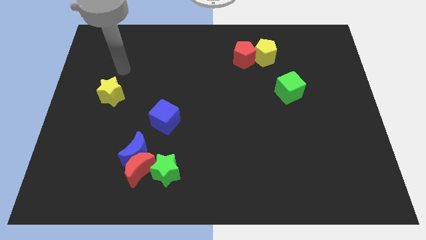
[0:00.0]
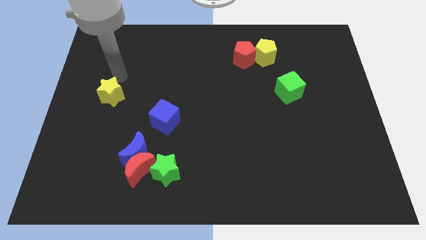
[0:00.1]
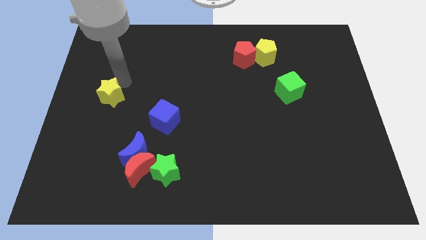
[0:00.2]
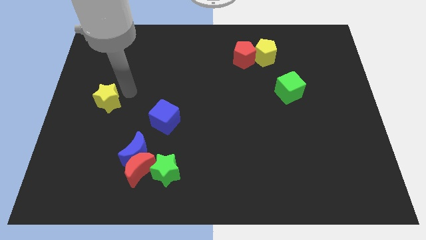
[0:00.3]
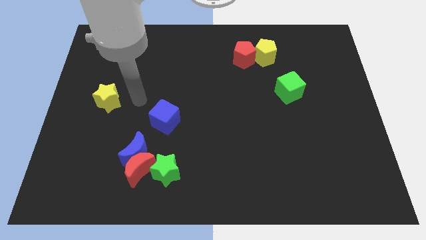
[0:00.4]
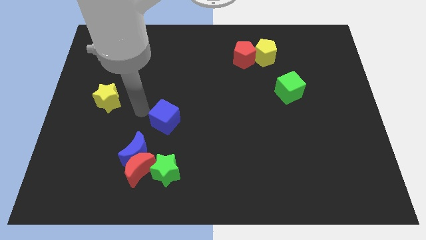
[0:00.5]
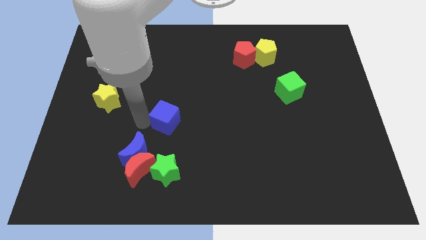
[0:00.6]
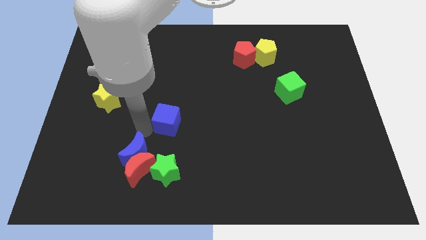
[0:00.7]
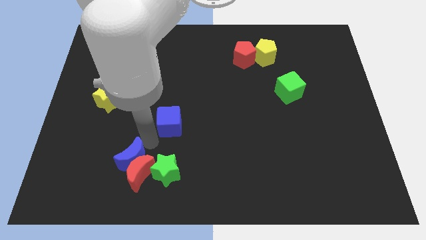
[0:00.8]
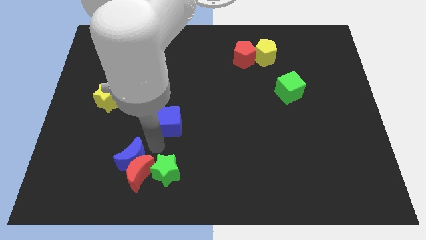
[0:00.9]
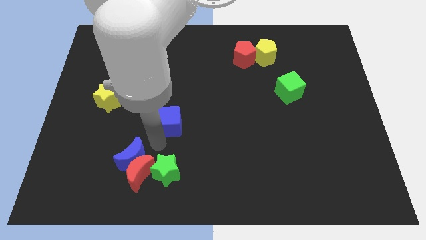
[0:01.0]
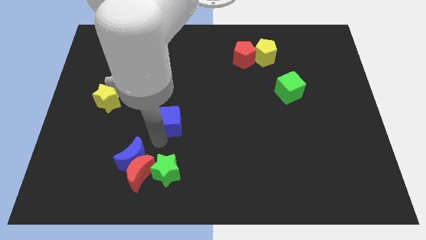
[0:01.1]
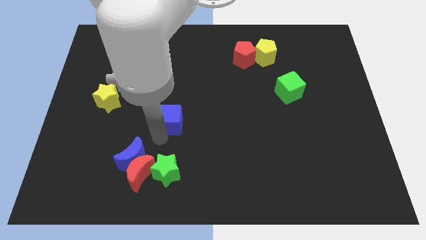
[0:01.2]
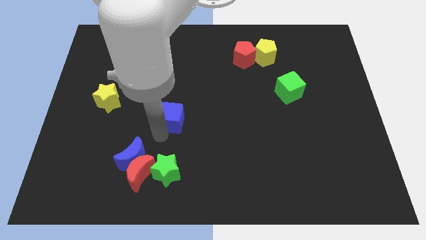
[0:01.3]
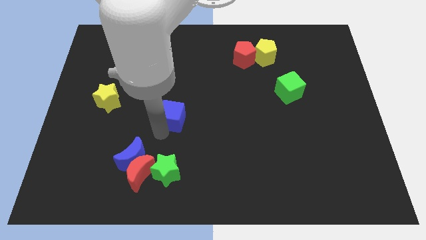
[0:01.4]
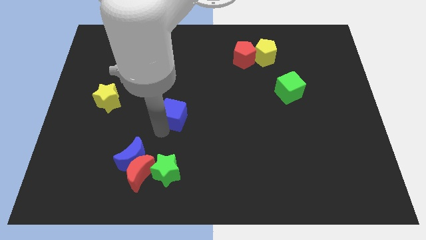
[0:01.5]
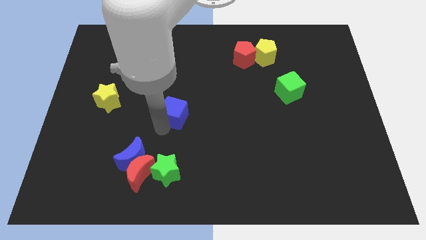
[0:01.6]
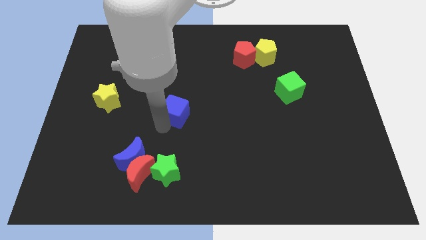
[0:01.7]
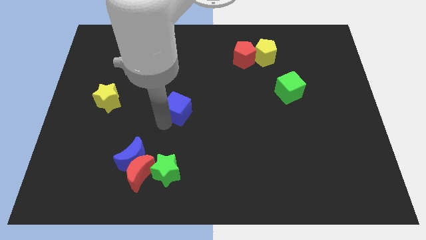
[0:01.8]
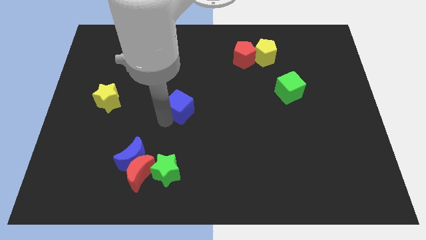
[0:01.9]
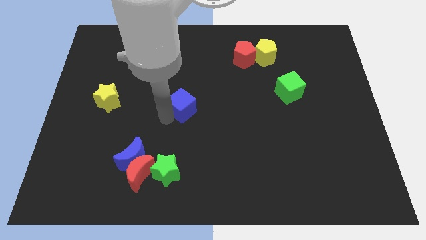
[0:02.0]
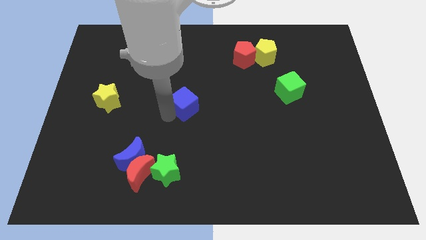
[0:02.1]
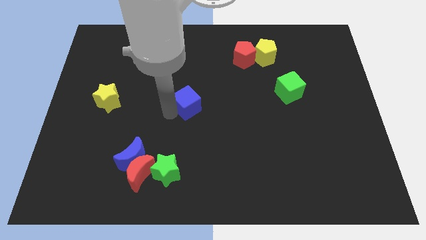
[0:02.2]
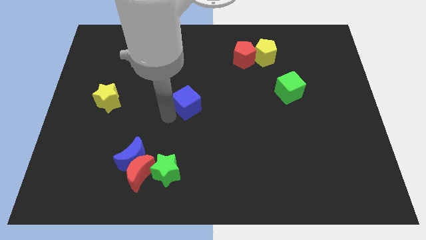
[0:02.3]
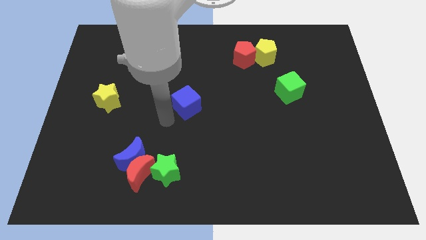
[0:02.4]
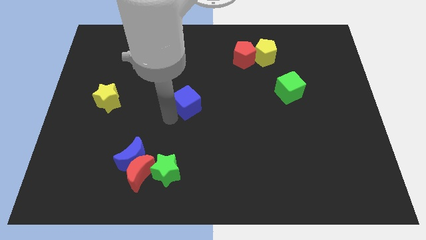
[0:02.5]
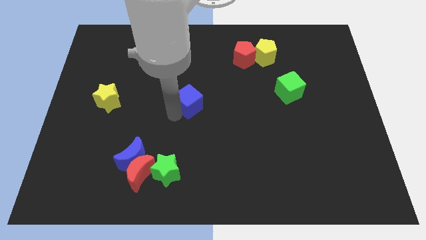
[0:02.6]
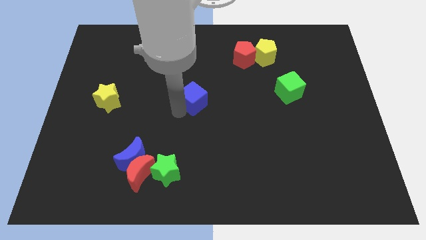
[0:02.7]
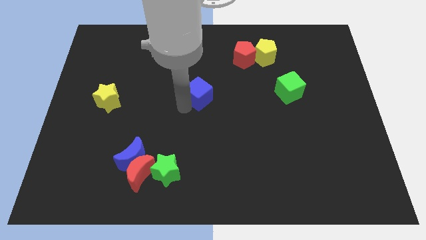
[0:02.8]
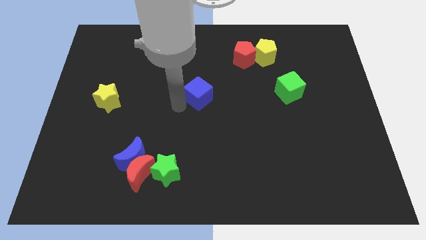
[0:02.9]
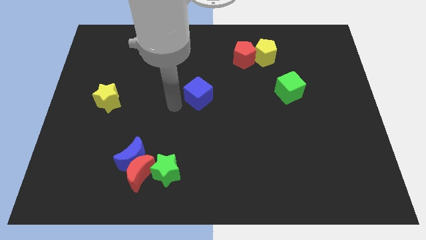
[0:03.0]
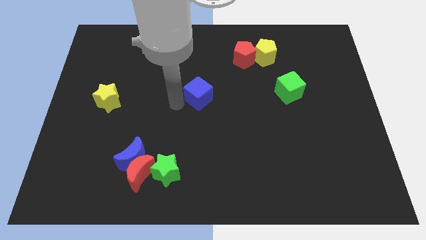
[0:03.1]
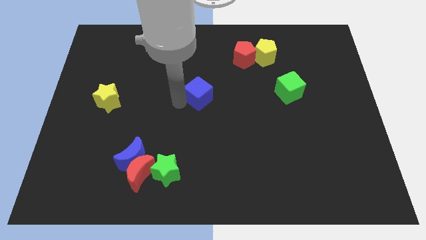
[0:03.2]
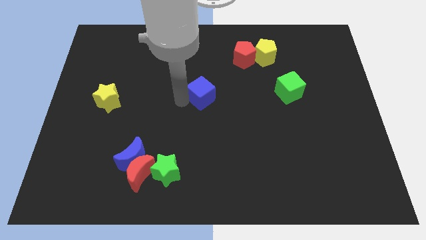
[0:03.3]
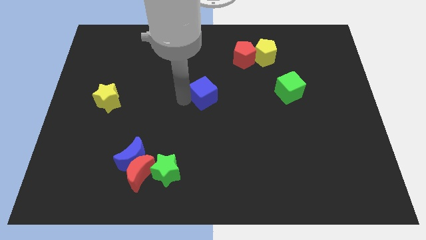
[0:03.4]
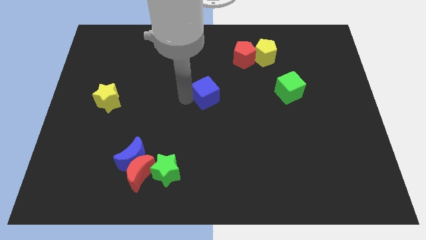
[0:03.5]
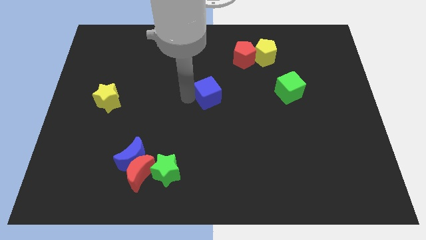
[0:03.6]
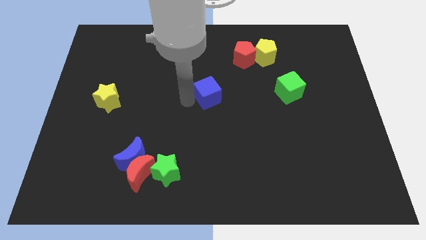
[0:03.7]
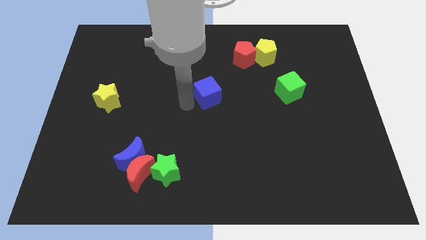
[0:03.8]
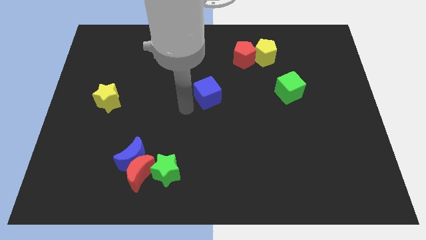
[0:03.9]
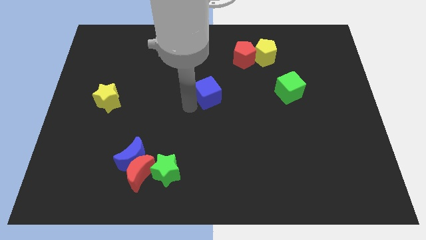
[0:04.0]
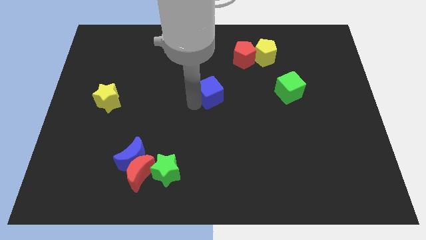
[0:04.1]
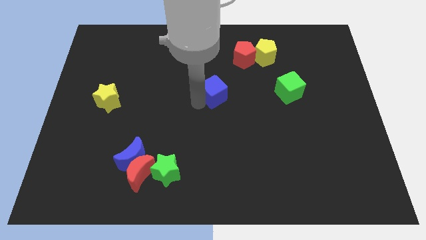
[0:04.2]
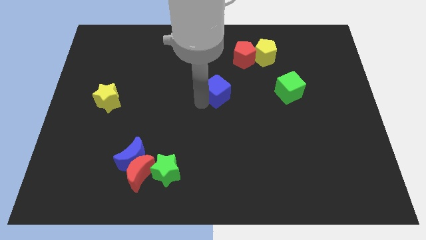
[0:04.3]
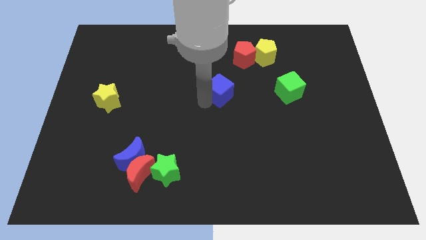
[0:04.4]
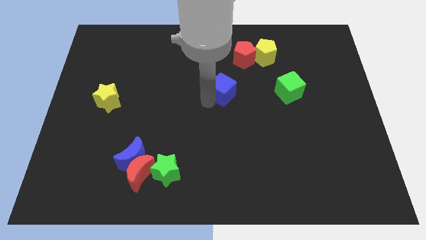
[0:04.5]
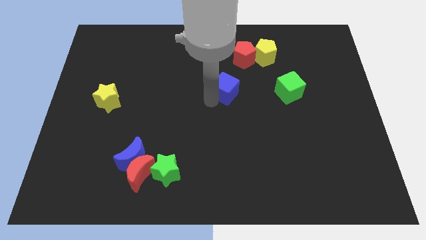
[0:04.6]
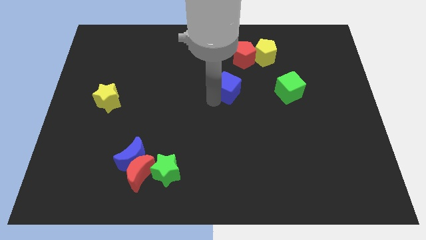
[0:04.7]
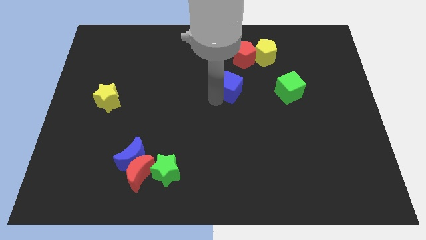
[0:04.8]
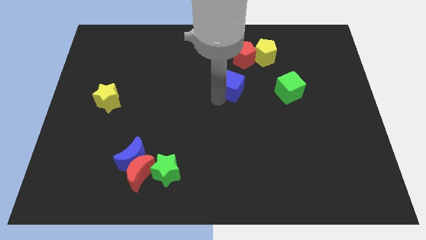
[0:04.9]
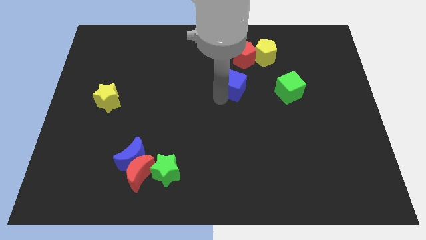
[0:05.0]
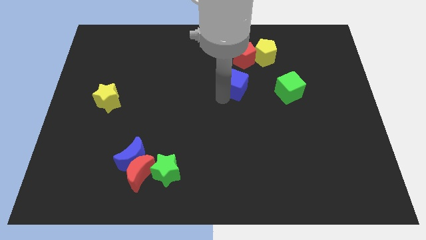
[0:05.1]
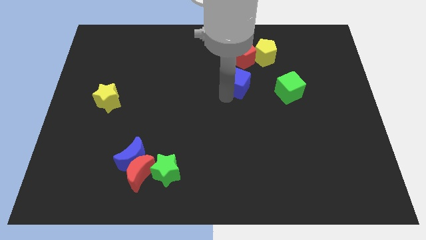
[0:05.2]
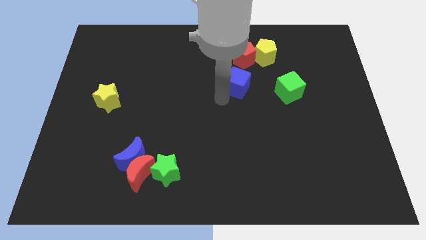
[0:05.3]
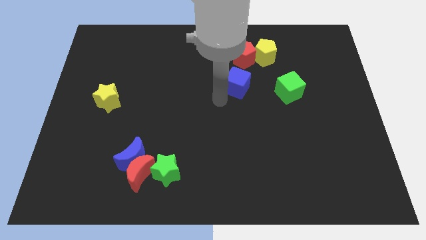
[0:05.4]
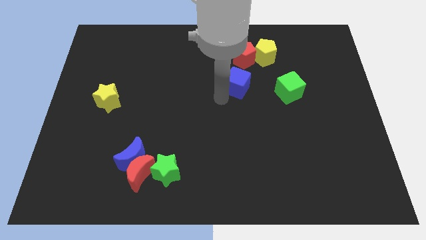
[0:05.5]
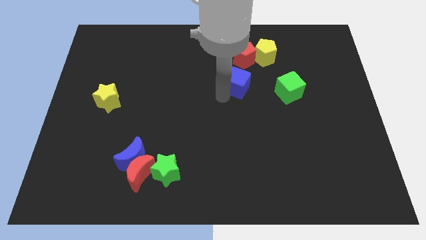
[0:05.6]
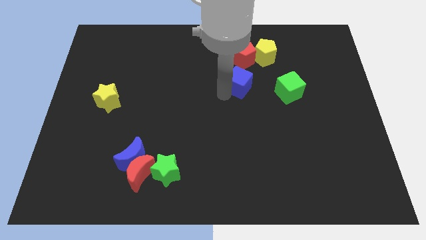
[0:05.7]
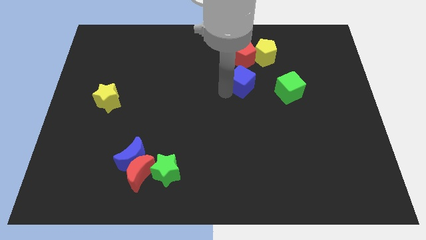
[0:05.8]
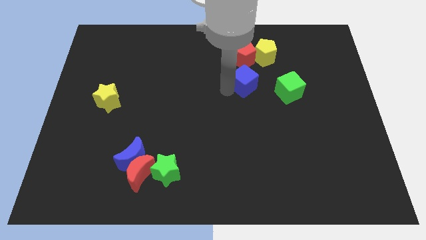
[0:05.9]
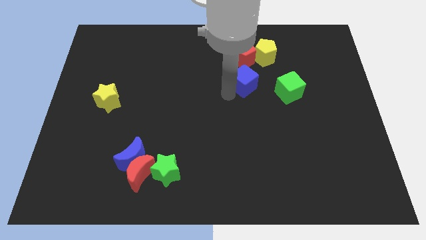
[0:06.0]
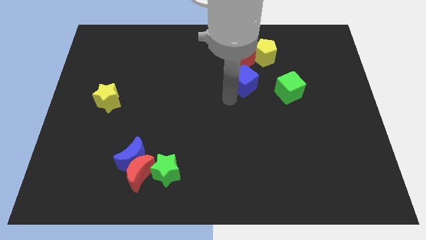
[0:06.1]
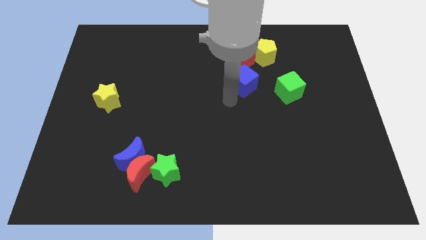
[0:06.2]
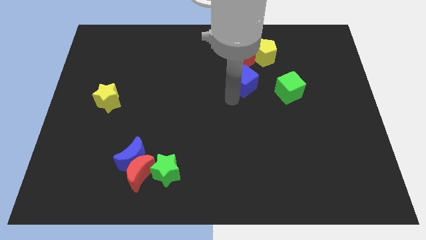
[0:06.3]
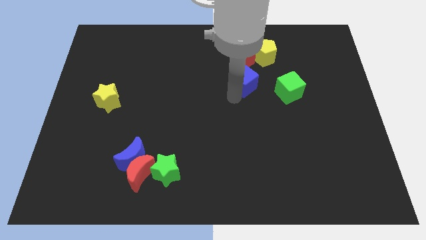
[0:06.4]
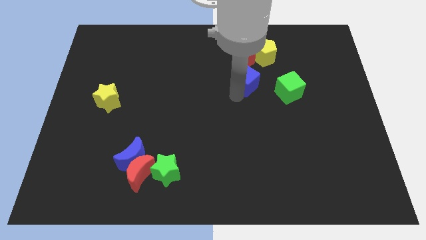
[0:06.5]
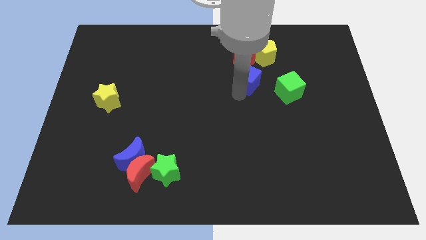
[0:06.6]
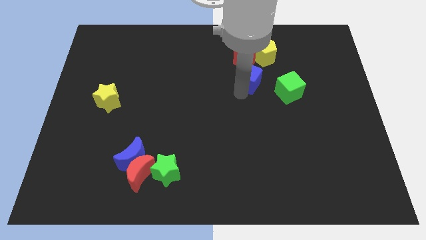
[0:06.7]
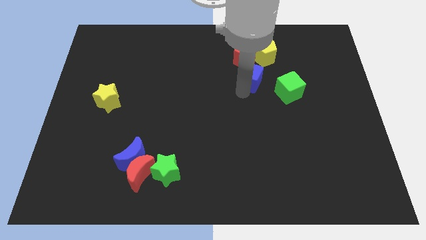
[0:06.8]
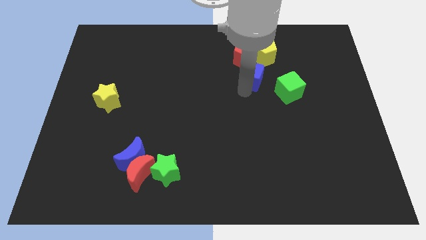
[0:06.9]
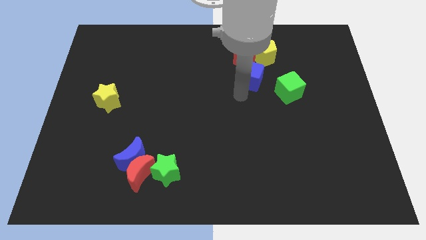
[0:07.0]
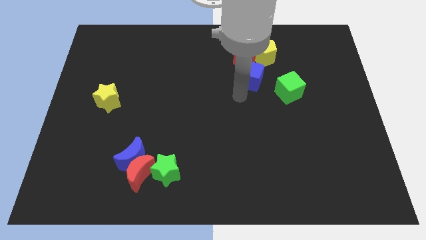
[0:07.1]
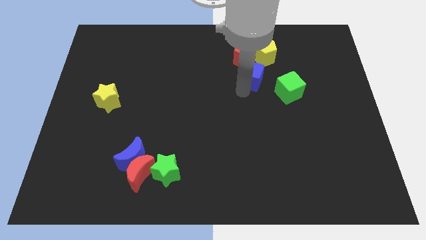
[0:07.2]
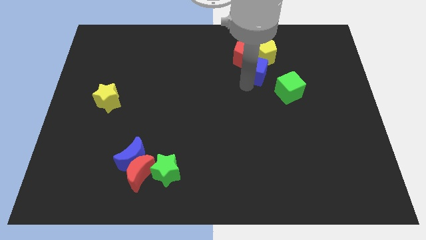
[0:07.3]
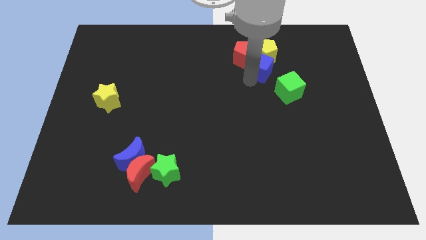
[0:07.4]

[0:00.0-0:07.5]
move the blue cube to the yellow pentagon
